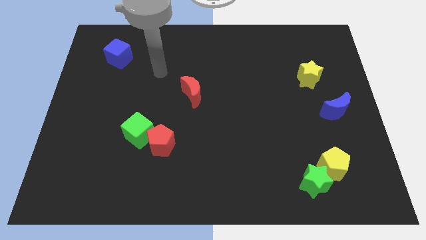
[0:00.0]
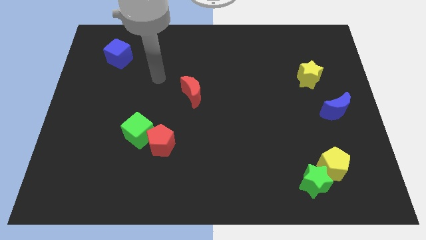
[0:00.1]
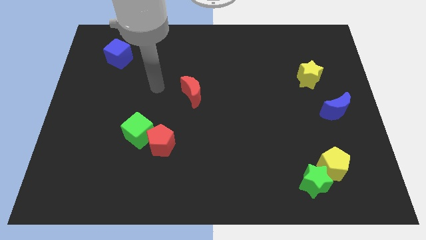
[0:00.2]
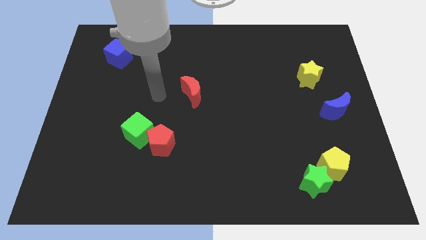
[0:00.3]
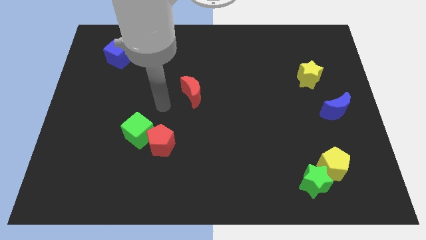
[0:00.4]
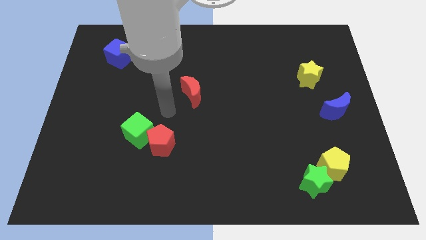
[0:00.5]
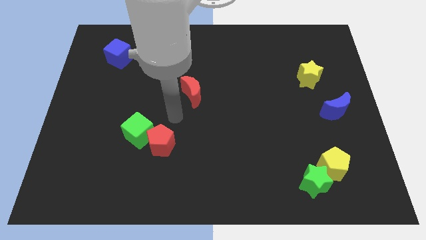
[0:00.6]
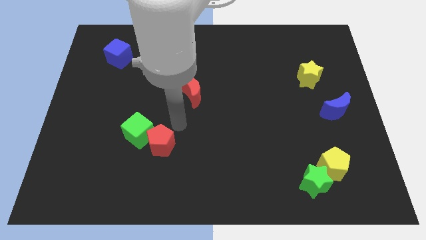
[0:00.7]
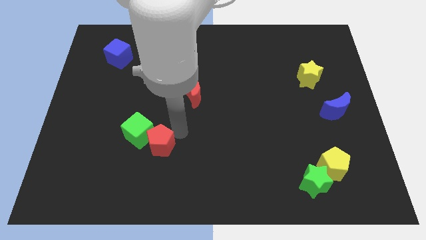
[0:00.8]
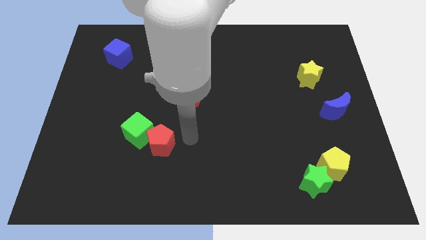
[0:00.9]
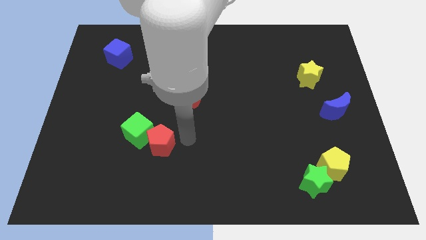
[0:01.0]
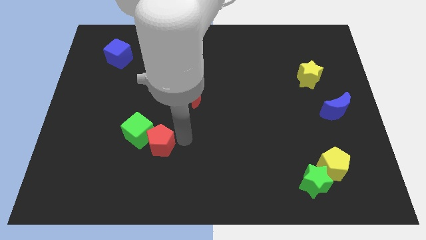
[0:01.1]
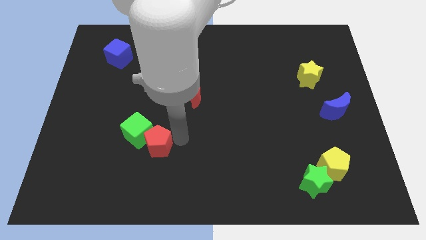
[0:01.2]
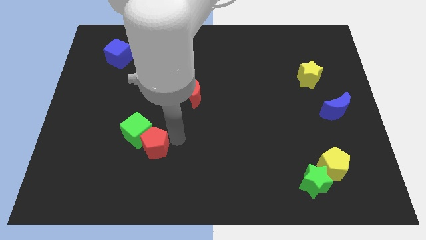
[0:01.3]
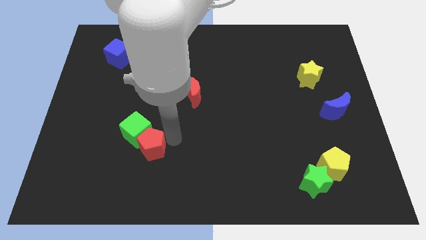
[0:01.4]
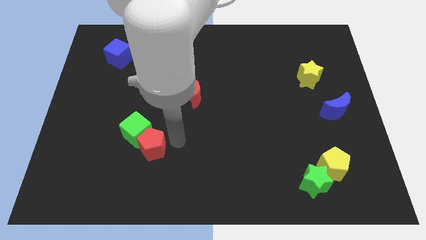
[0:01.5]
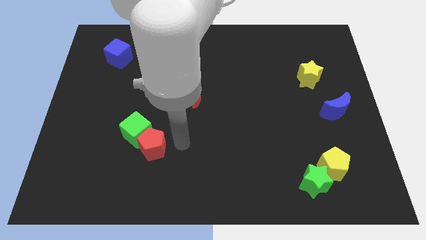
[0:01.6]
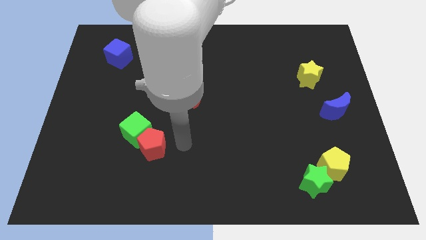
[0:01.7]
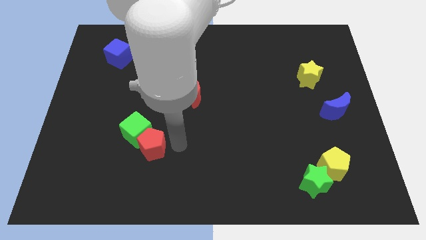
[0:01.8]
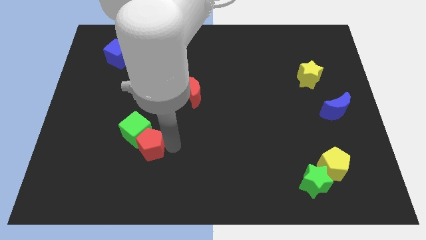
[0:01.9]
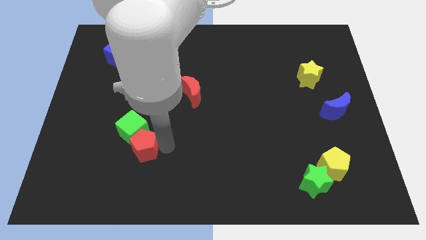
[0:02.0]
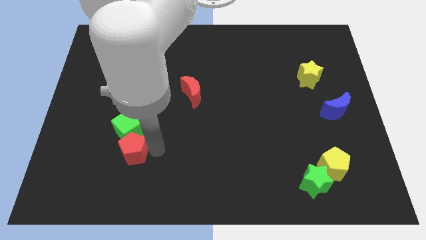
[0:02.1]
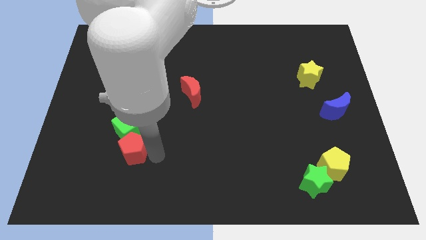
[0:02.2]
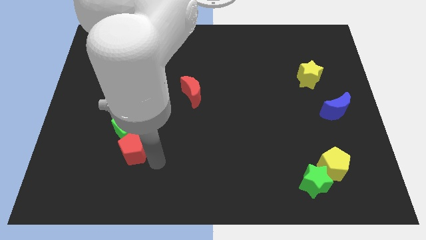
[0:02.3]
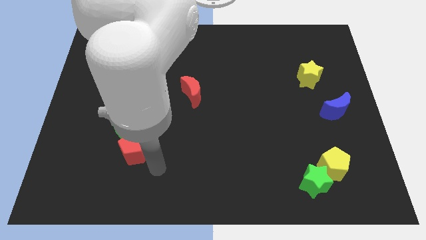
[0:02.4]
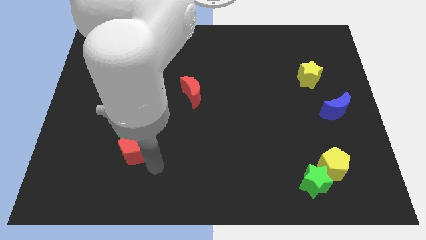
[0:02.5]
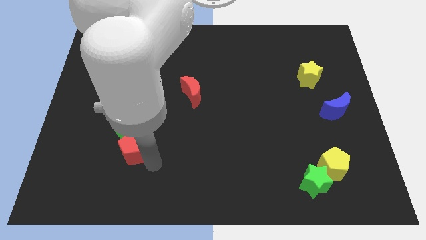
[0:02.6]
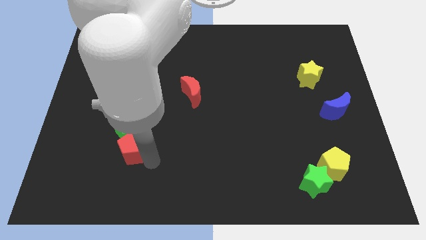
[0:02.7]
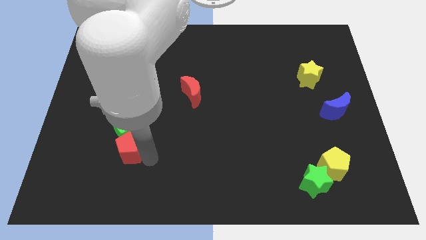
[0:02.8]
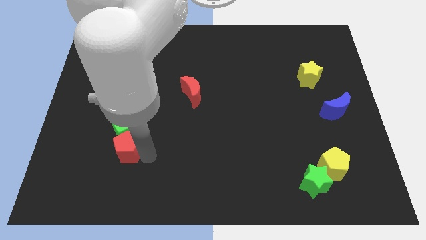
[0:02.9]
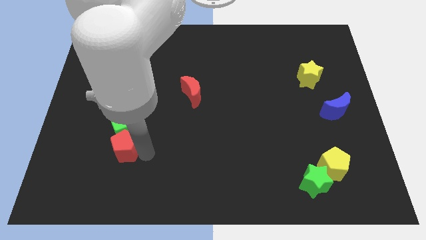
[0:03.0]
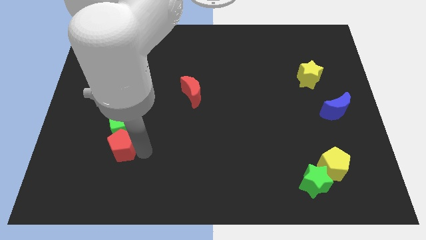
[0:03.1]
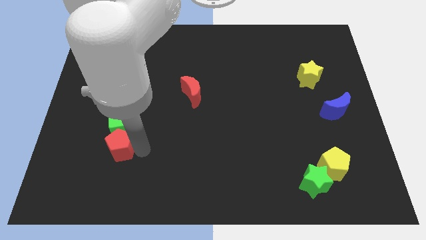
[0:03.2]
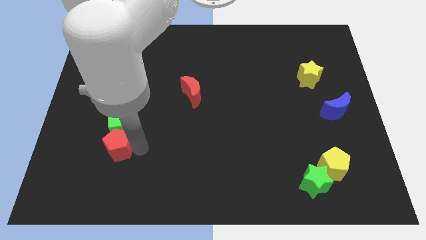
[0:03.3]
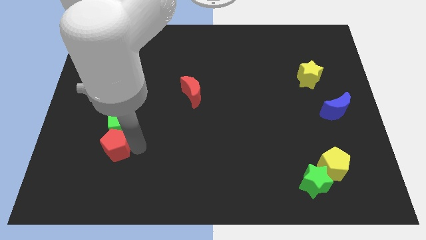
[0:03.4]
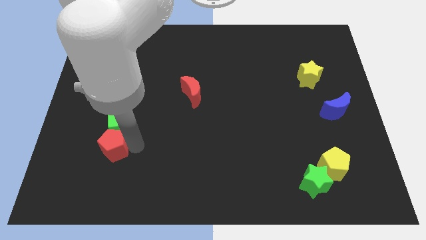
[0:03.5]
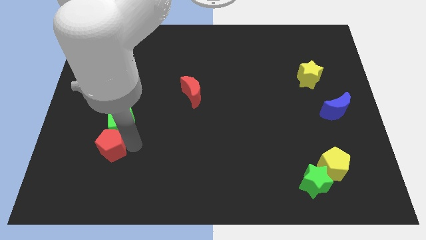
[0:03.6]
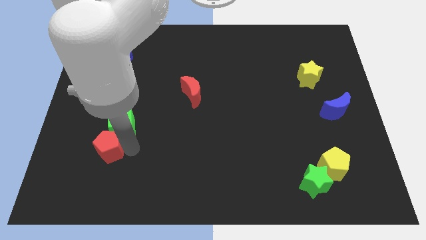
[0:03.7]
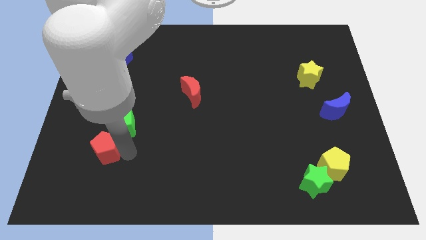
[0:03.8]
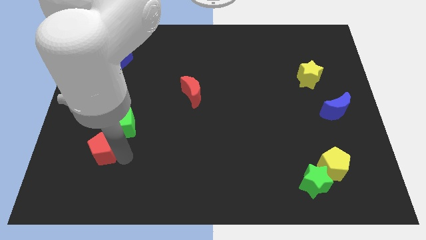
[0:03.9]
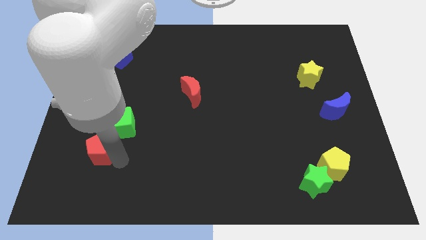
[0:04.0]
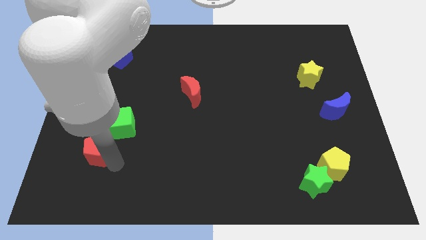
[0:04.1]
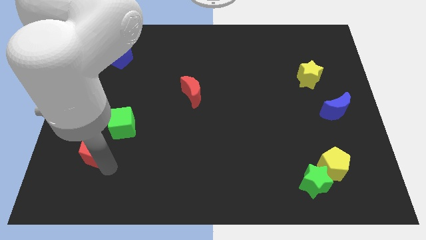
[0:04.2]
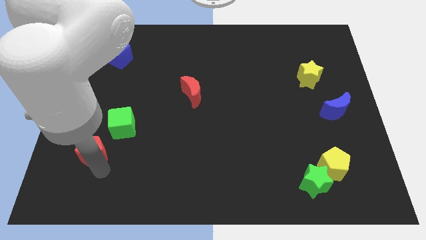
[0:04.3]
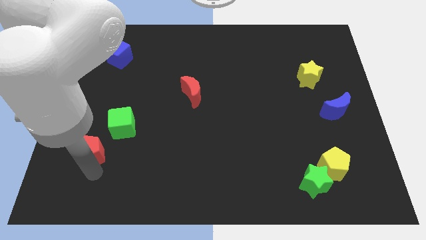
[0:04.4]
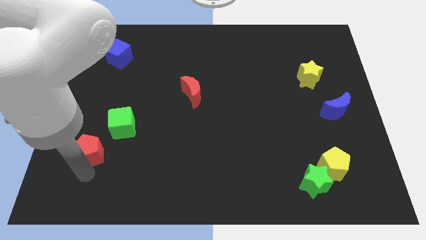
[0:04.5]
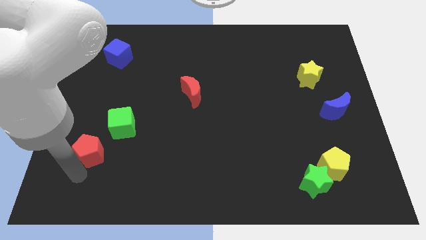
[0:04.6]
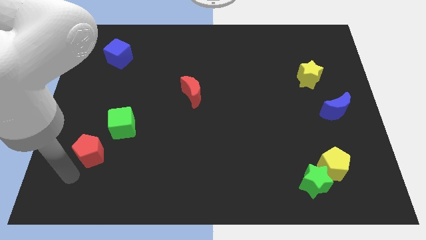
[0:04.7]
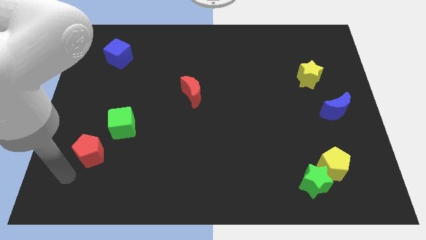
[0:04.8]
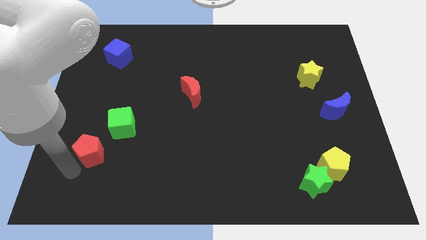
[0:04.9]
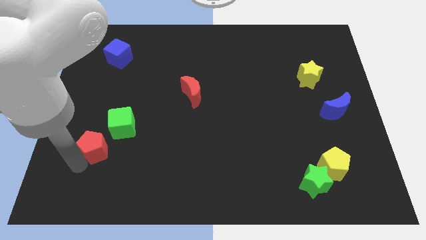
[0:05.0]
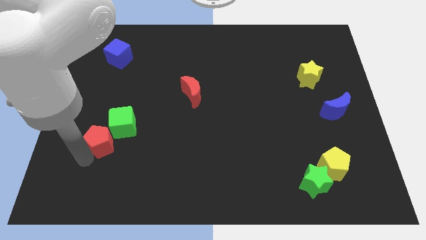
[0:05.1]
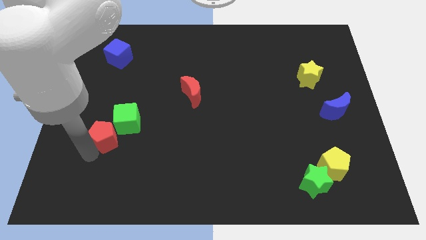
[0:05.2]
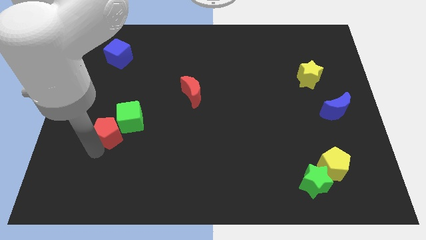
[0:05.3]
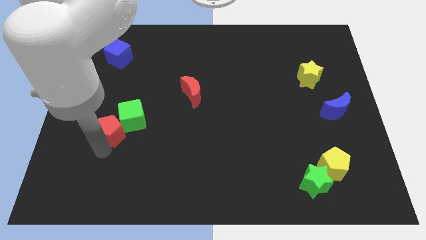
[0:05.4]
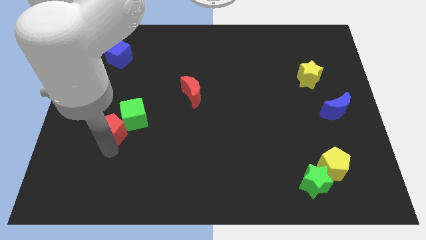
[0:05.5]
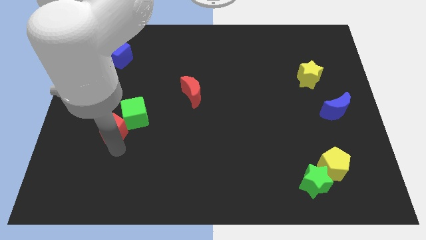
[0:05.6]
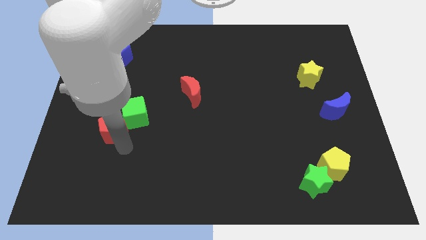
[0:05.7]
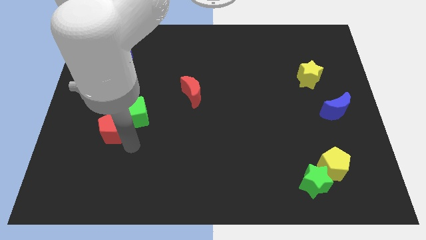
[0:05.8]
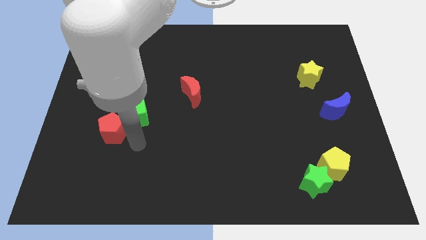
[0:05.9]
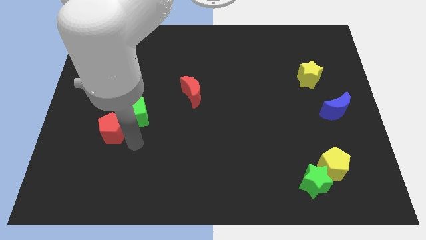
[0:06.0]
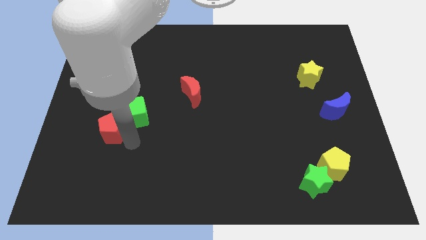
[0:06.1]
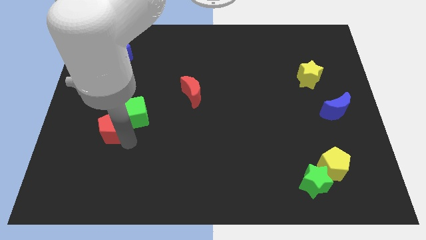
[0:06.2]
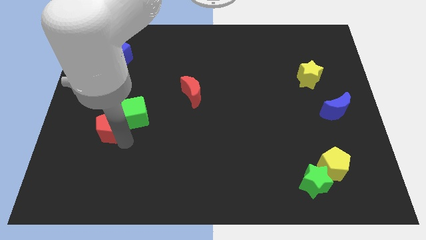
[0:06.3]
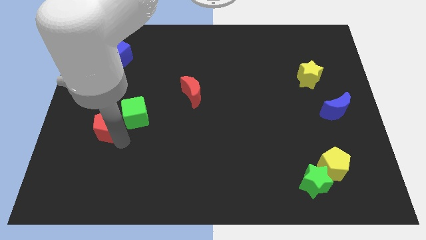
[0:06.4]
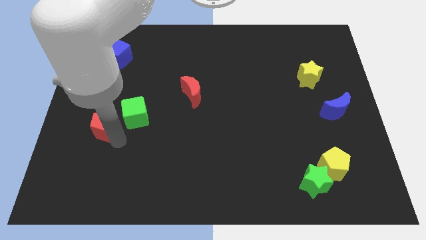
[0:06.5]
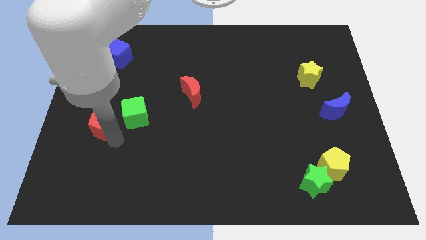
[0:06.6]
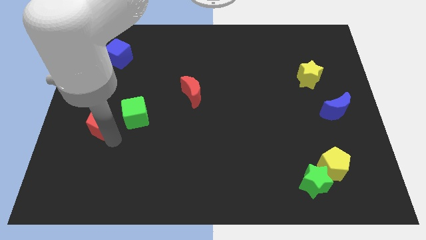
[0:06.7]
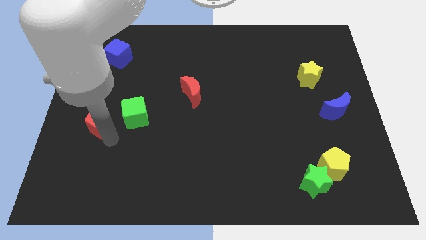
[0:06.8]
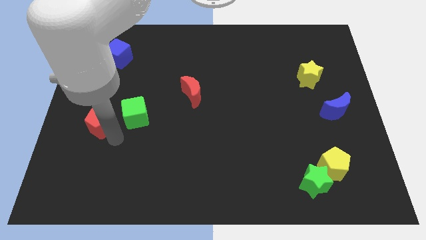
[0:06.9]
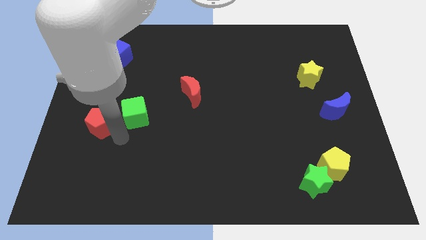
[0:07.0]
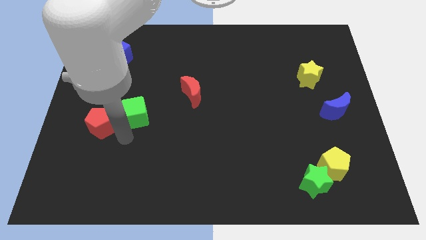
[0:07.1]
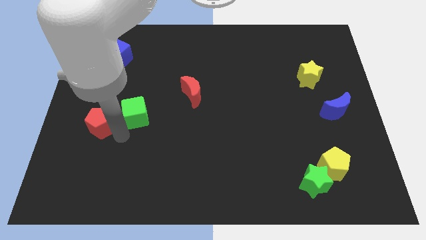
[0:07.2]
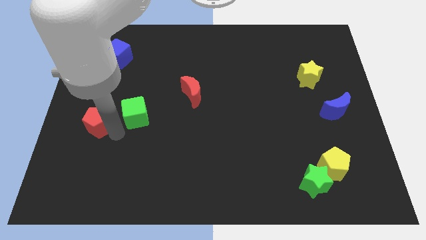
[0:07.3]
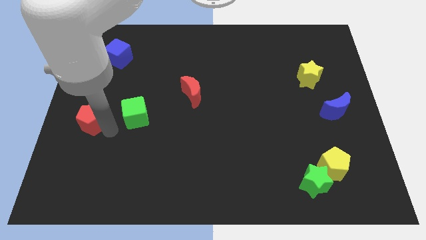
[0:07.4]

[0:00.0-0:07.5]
put the red pentagon to the left side

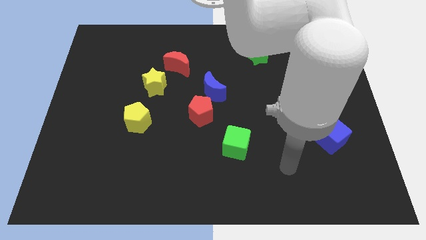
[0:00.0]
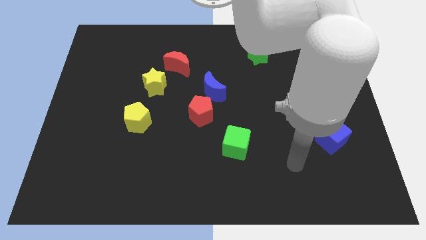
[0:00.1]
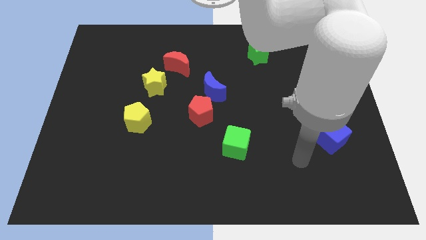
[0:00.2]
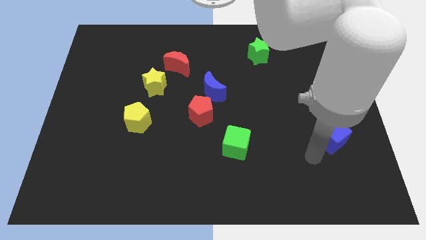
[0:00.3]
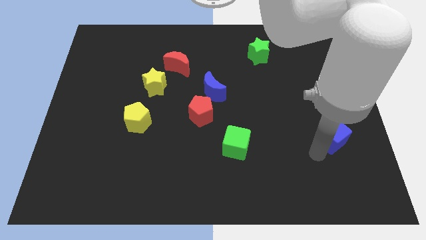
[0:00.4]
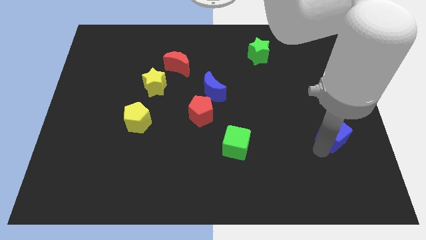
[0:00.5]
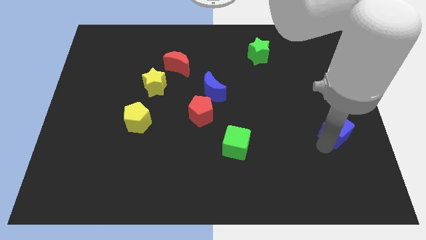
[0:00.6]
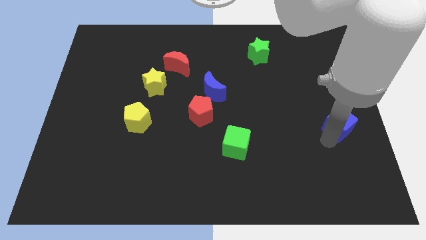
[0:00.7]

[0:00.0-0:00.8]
move the blue cube to the center right
